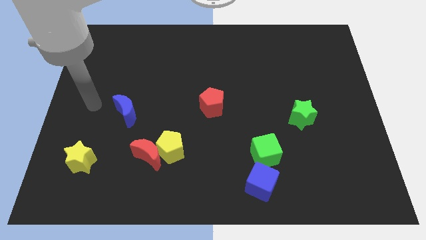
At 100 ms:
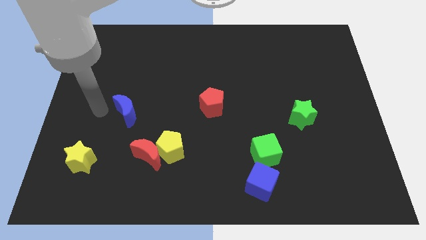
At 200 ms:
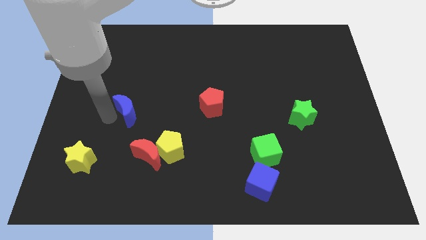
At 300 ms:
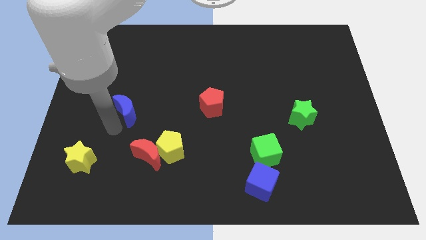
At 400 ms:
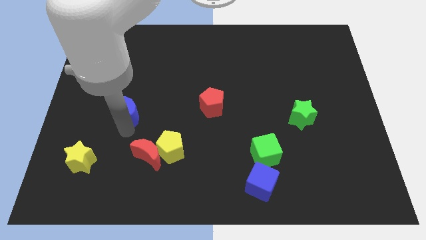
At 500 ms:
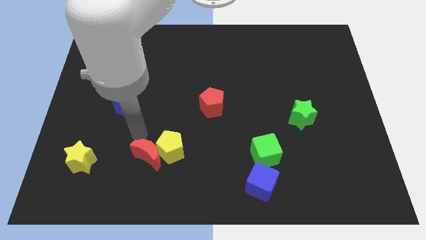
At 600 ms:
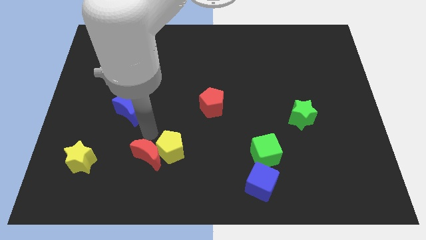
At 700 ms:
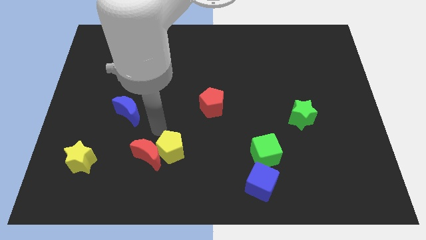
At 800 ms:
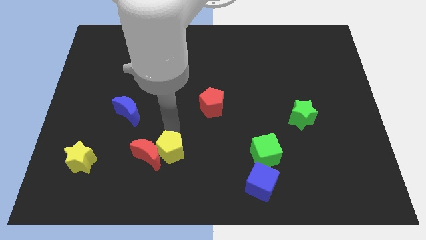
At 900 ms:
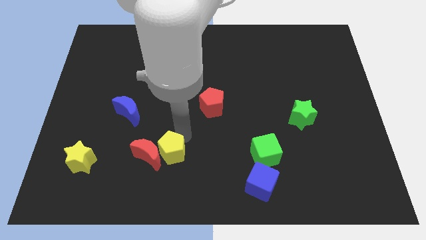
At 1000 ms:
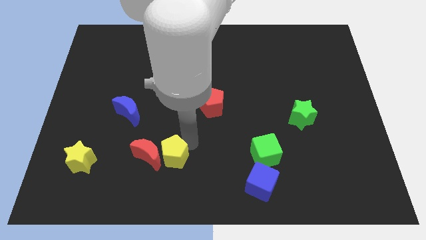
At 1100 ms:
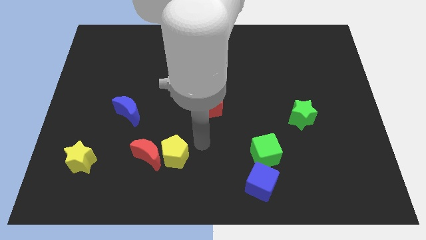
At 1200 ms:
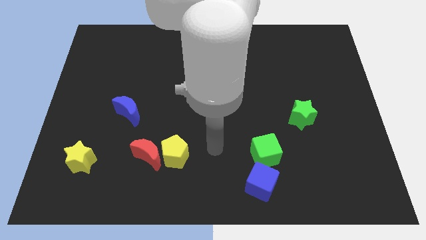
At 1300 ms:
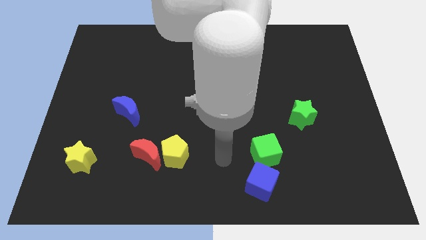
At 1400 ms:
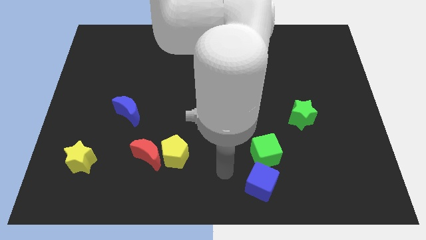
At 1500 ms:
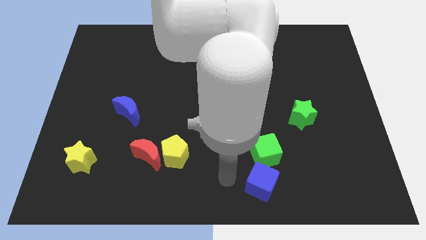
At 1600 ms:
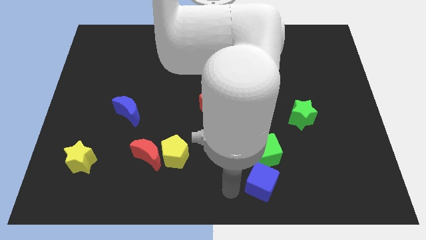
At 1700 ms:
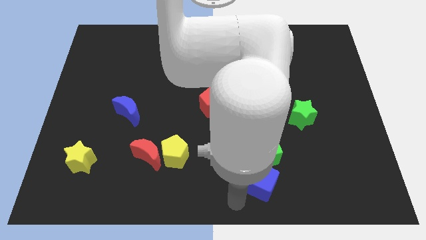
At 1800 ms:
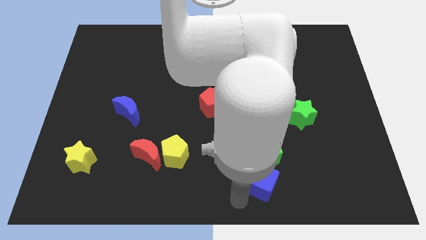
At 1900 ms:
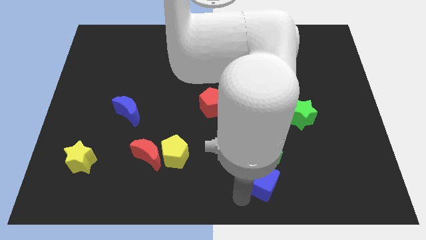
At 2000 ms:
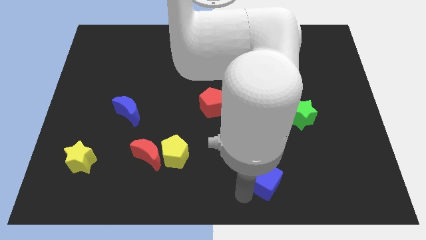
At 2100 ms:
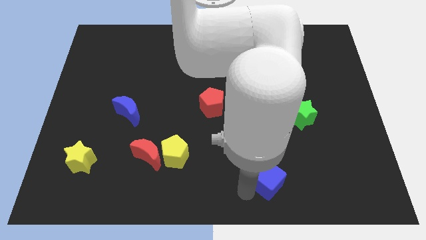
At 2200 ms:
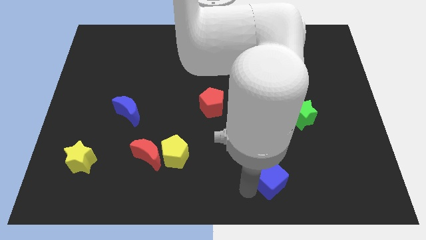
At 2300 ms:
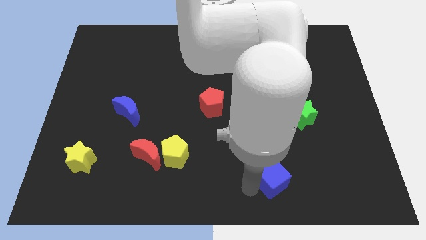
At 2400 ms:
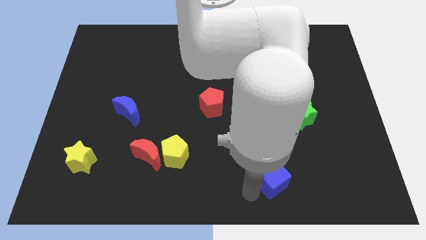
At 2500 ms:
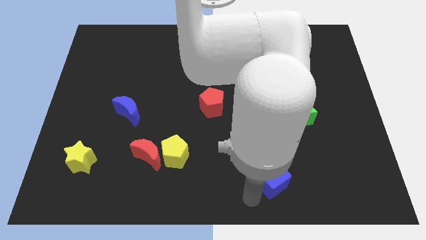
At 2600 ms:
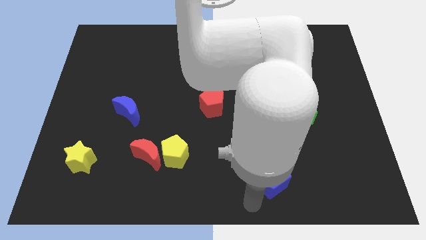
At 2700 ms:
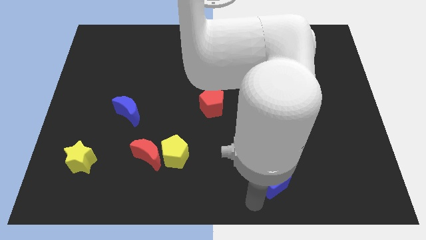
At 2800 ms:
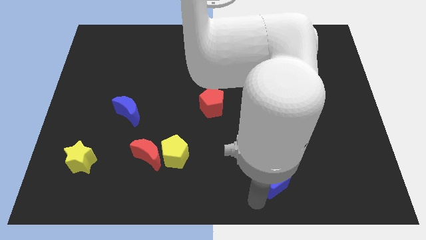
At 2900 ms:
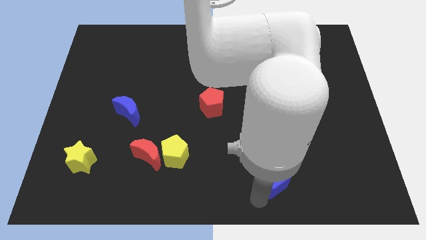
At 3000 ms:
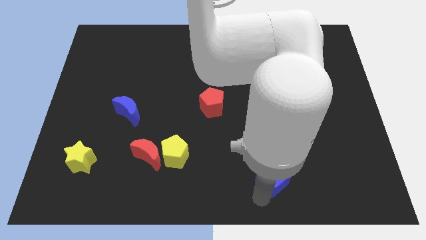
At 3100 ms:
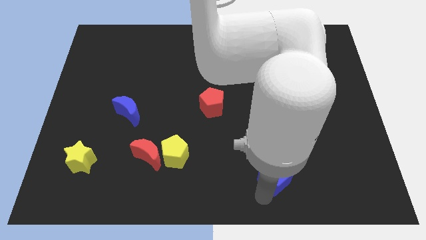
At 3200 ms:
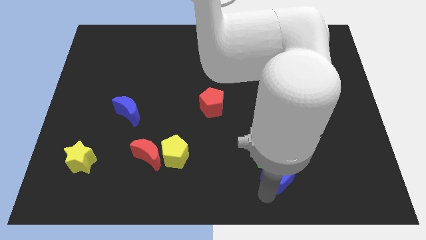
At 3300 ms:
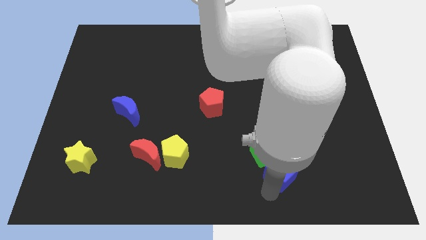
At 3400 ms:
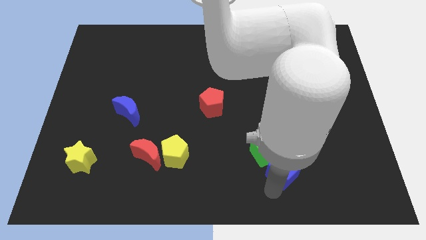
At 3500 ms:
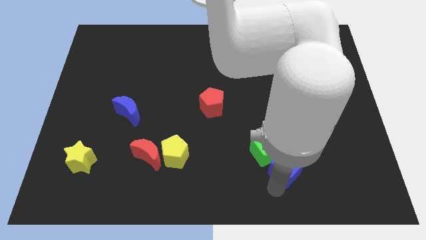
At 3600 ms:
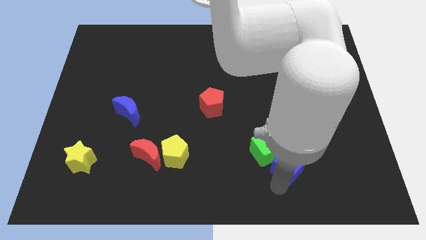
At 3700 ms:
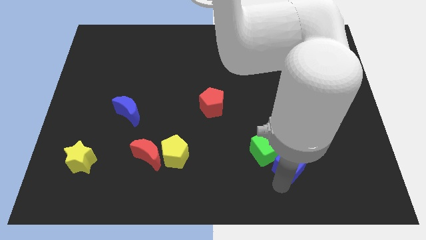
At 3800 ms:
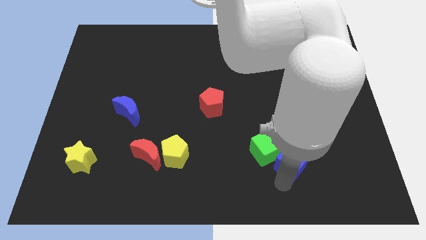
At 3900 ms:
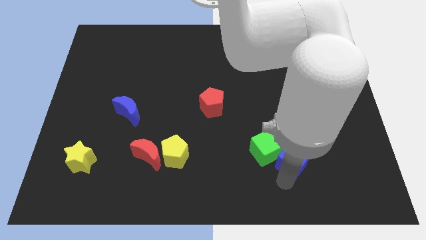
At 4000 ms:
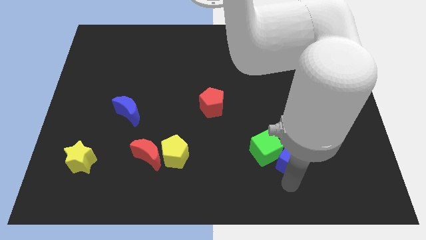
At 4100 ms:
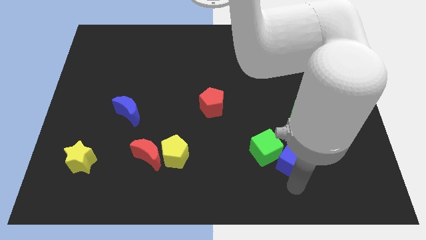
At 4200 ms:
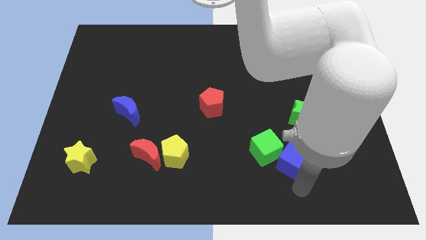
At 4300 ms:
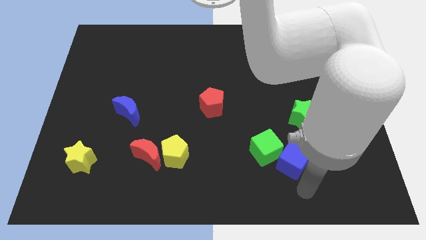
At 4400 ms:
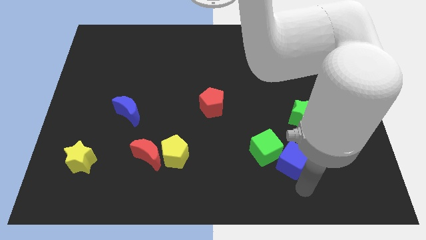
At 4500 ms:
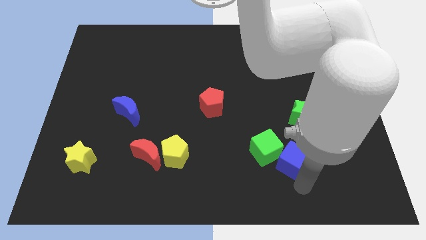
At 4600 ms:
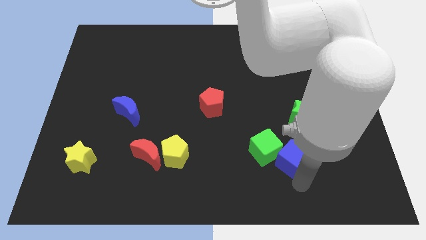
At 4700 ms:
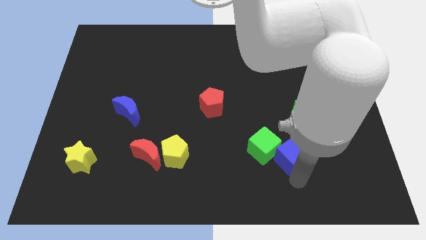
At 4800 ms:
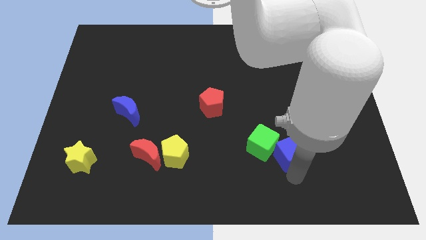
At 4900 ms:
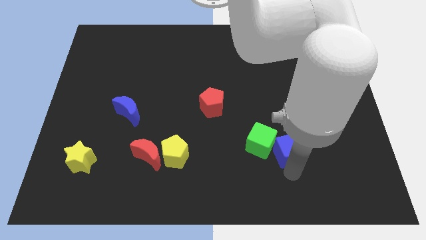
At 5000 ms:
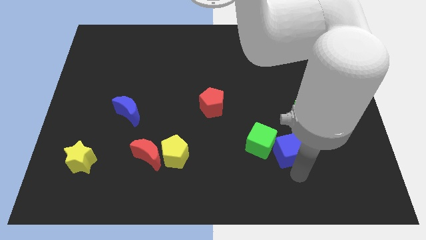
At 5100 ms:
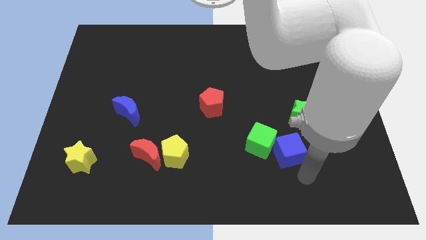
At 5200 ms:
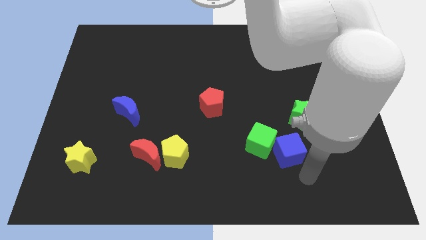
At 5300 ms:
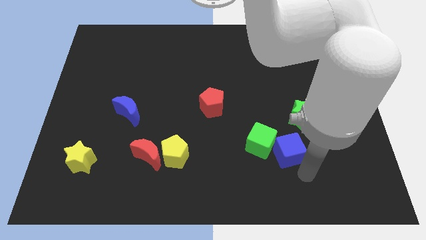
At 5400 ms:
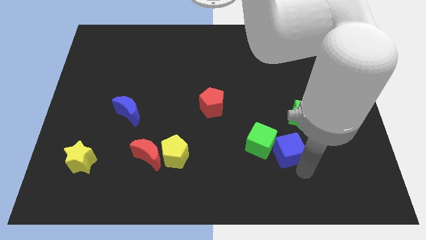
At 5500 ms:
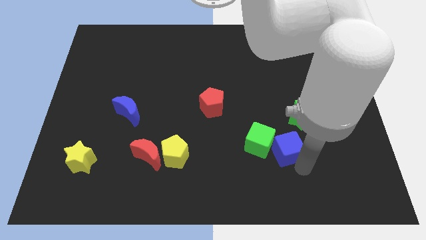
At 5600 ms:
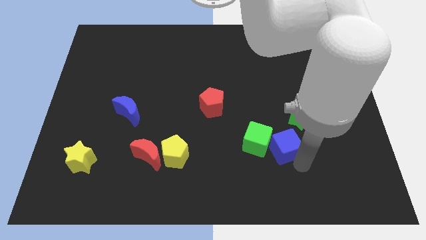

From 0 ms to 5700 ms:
move the blue cube slightly upwards

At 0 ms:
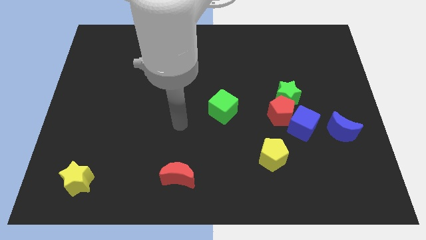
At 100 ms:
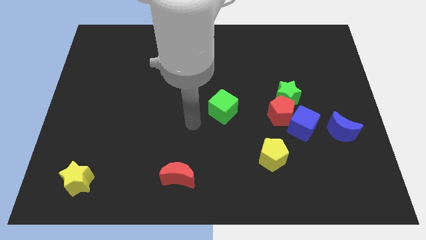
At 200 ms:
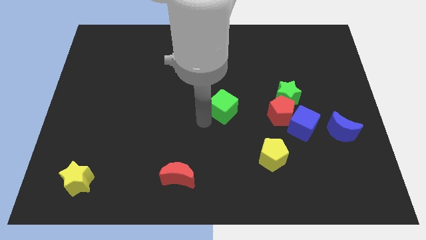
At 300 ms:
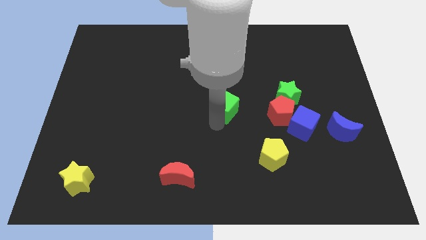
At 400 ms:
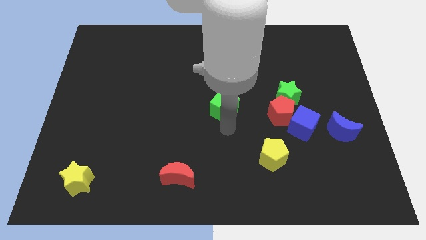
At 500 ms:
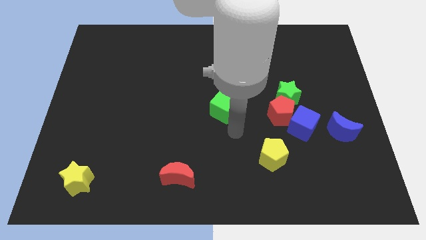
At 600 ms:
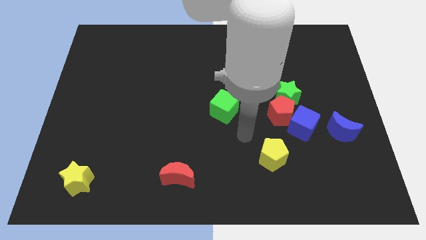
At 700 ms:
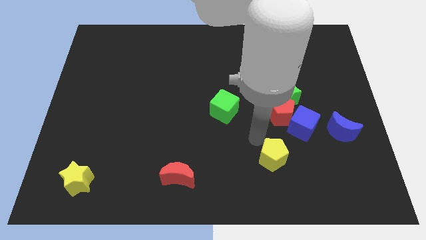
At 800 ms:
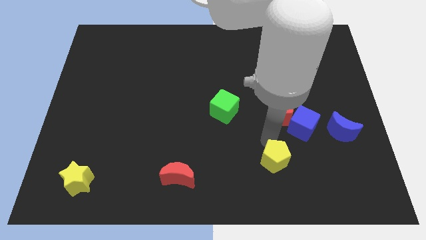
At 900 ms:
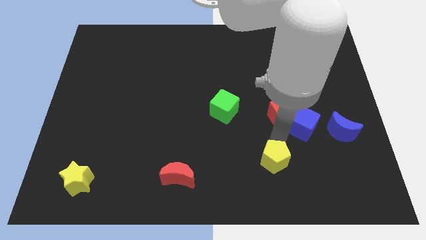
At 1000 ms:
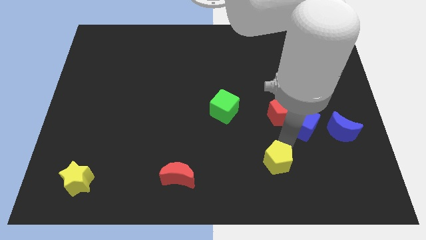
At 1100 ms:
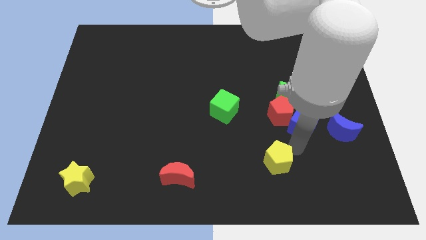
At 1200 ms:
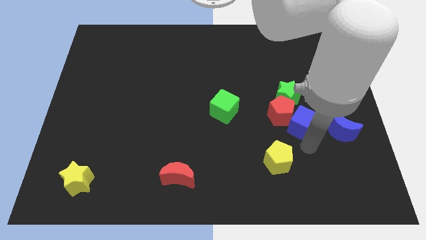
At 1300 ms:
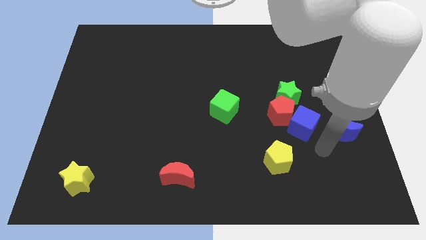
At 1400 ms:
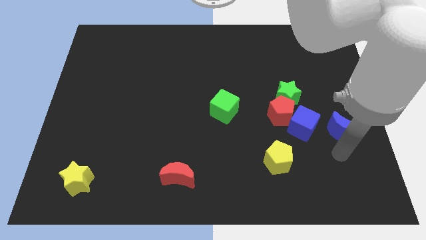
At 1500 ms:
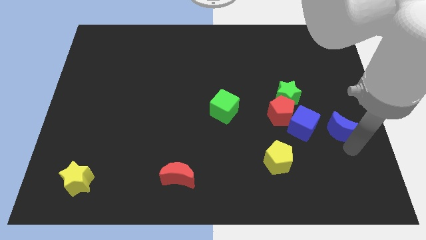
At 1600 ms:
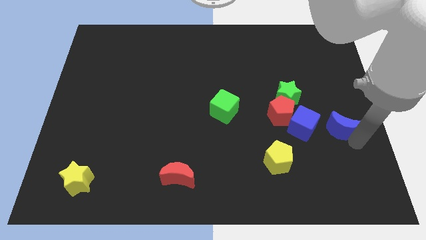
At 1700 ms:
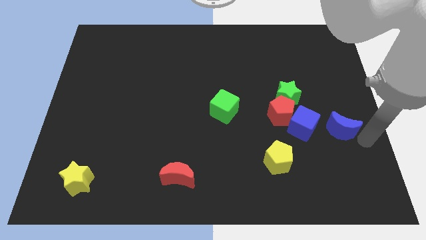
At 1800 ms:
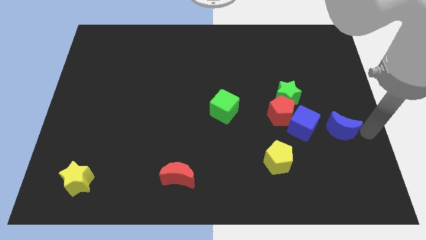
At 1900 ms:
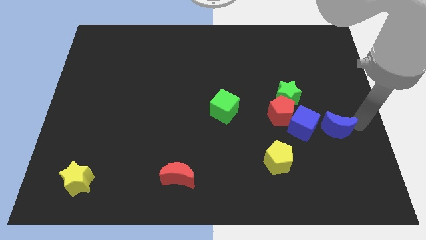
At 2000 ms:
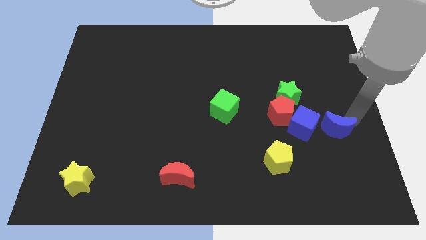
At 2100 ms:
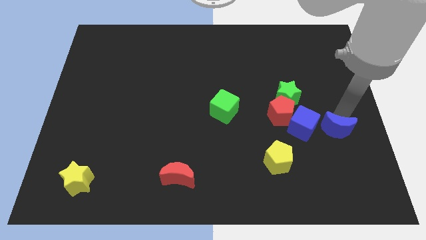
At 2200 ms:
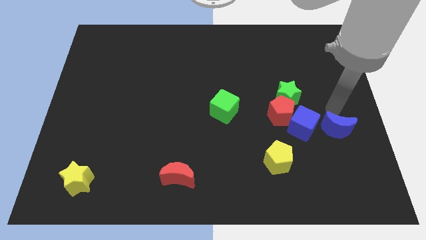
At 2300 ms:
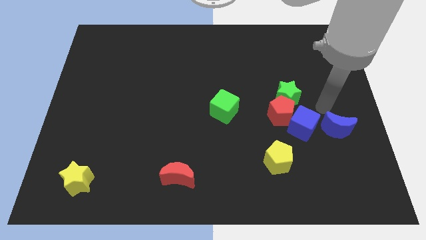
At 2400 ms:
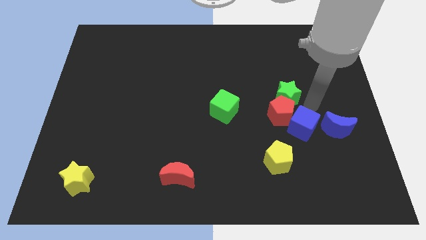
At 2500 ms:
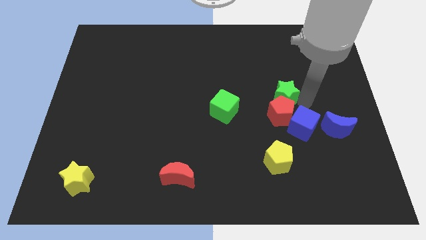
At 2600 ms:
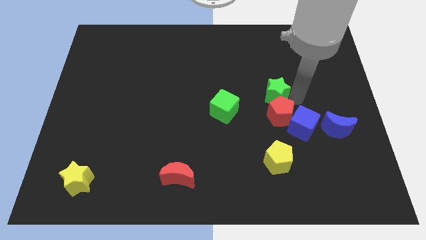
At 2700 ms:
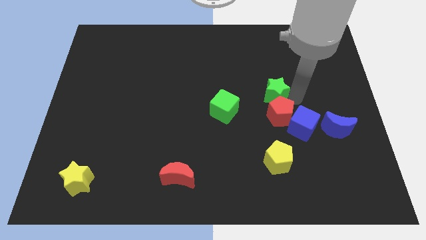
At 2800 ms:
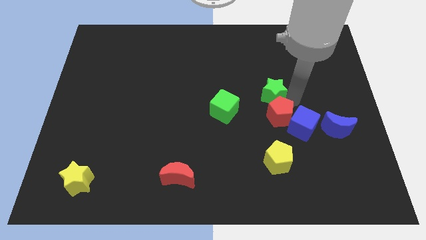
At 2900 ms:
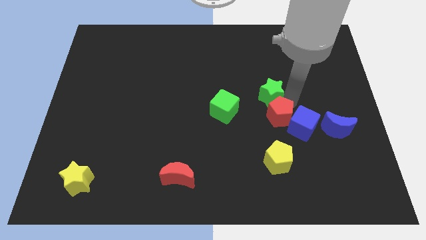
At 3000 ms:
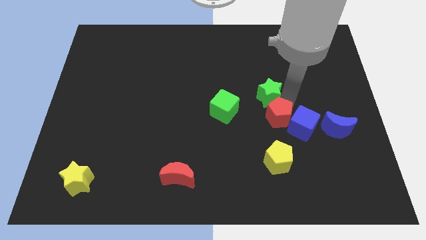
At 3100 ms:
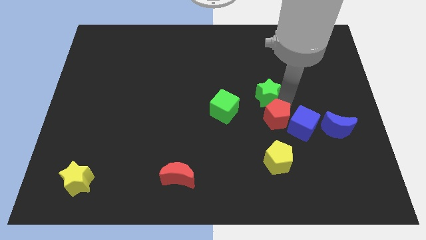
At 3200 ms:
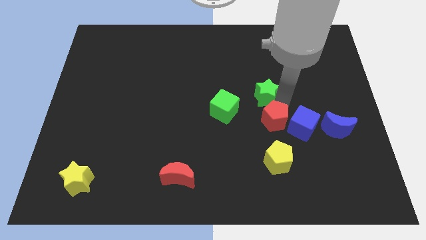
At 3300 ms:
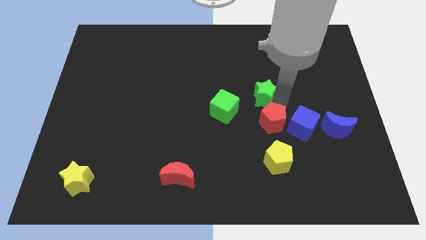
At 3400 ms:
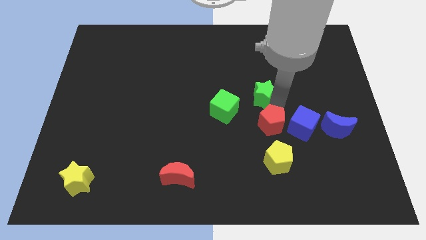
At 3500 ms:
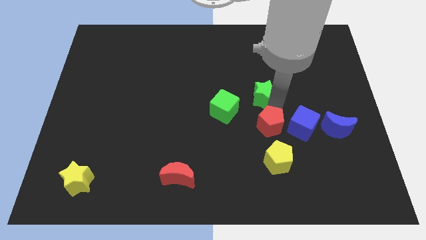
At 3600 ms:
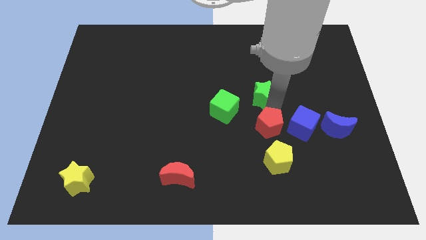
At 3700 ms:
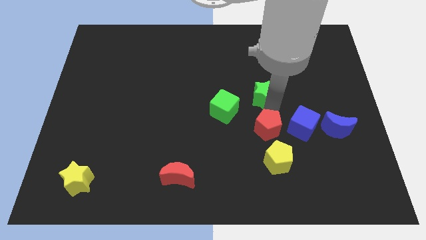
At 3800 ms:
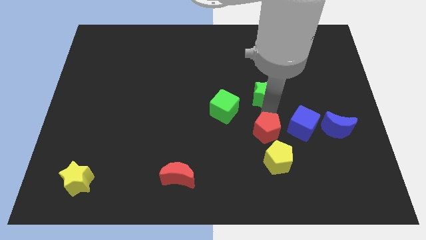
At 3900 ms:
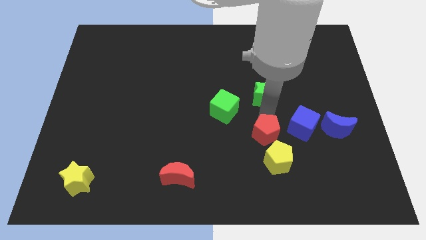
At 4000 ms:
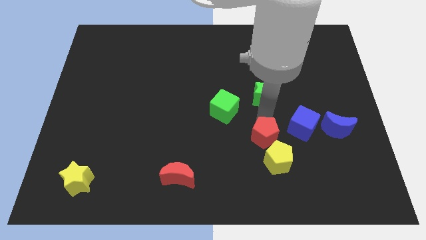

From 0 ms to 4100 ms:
move the red pentagon diagonally downwards and left a little
